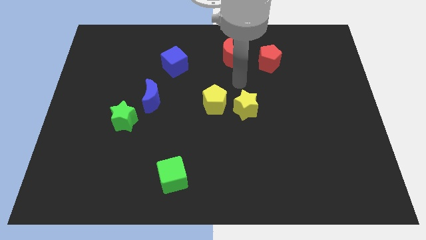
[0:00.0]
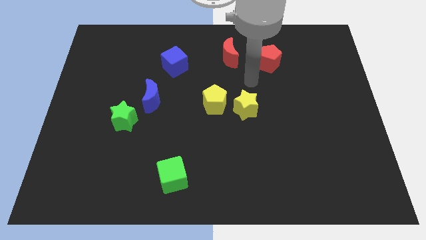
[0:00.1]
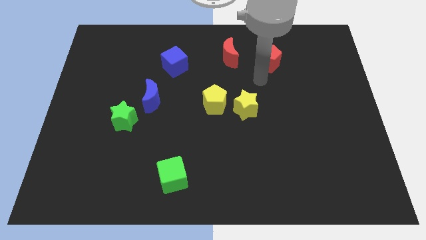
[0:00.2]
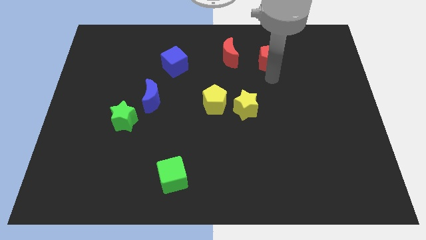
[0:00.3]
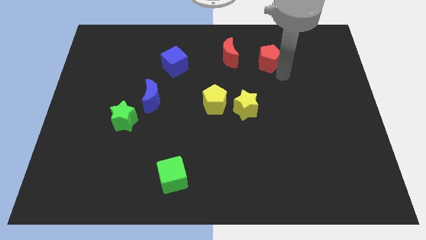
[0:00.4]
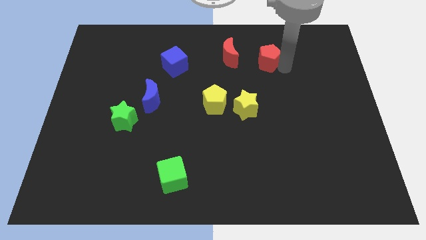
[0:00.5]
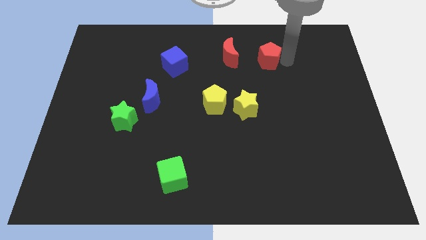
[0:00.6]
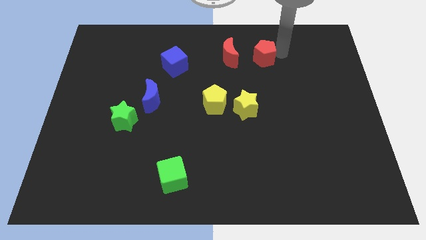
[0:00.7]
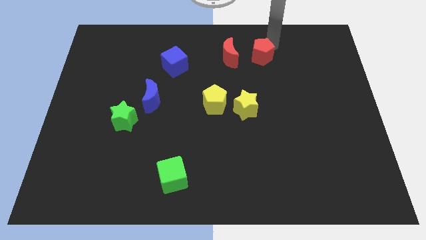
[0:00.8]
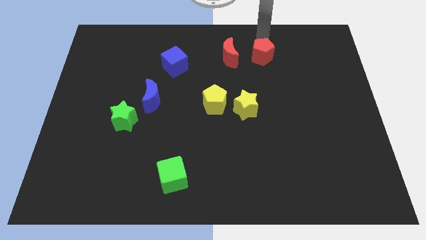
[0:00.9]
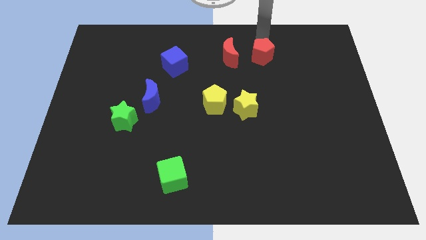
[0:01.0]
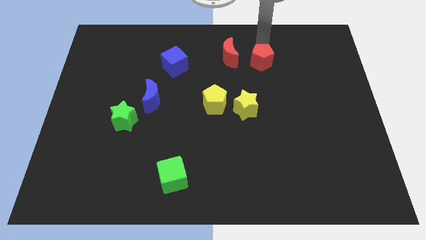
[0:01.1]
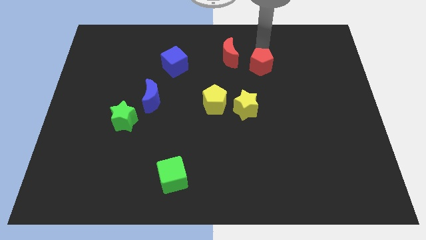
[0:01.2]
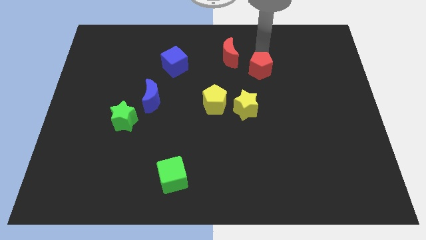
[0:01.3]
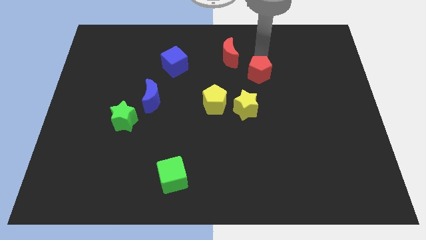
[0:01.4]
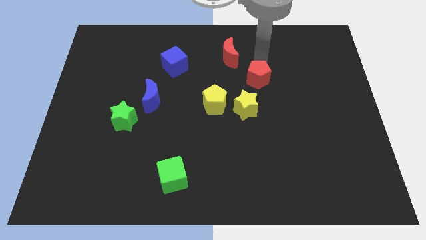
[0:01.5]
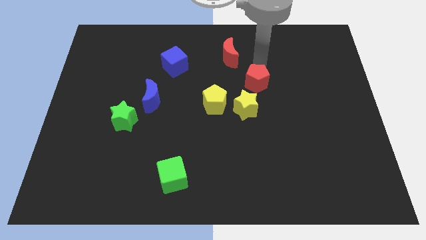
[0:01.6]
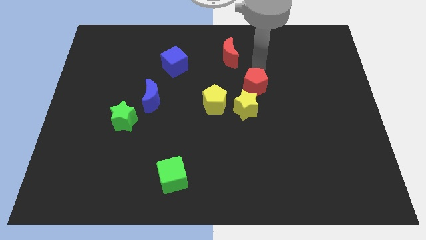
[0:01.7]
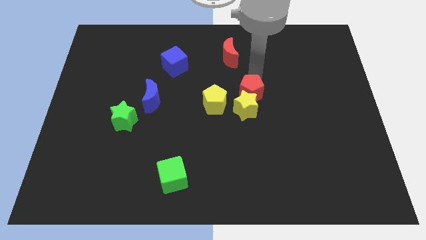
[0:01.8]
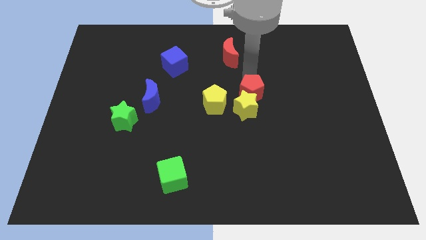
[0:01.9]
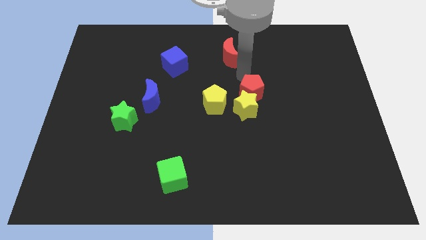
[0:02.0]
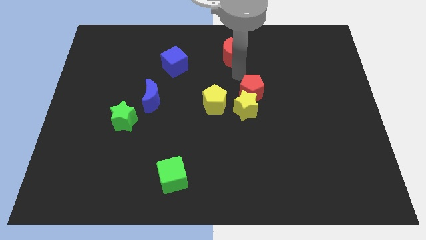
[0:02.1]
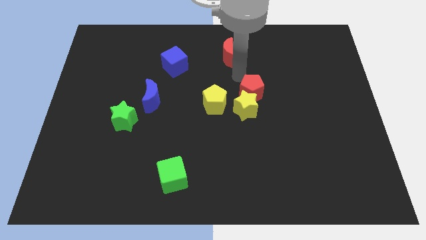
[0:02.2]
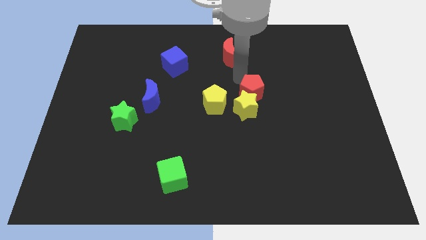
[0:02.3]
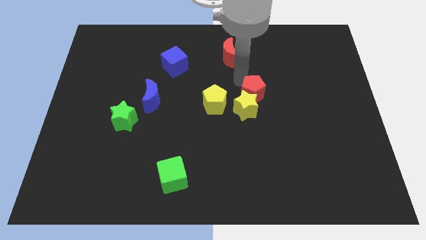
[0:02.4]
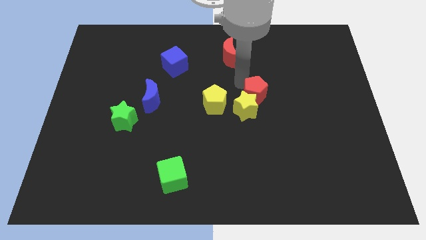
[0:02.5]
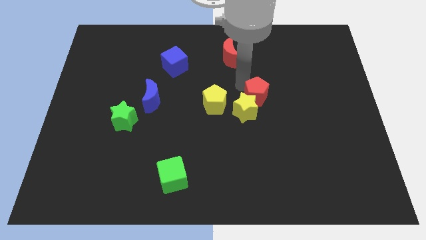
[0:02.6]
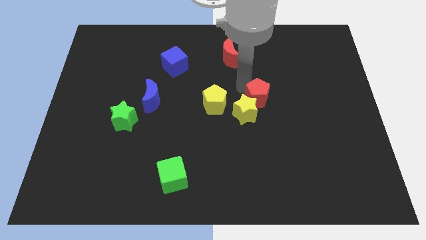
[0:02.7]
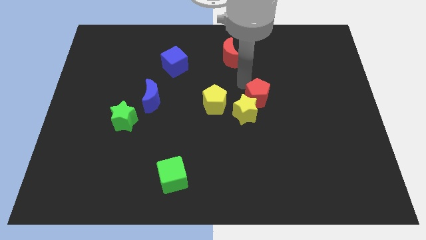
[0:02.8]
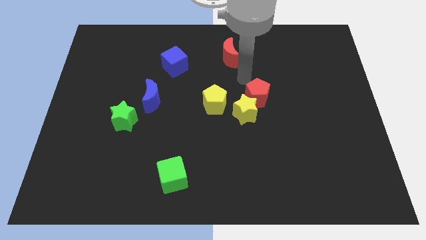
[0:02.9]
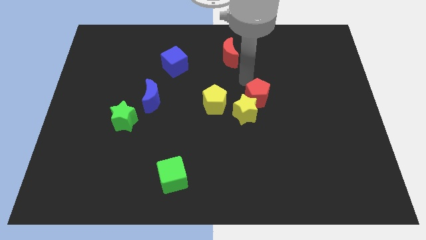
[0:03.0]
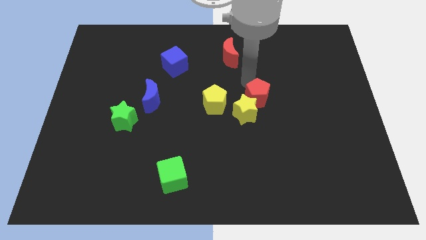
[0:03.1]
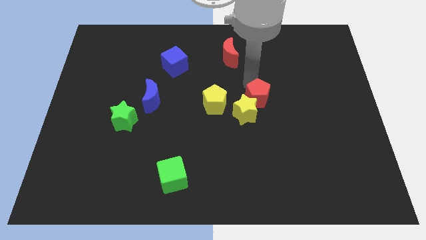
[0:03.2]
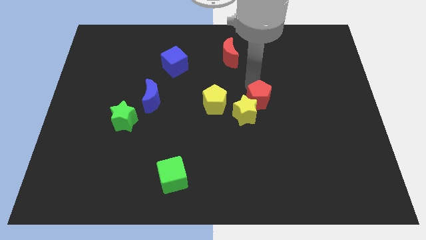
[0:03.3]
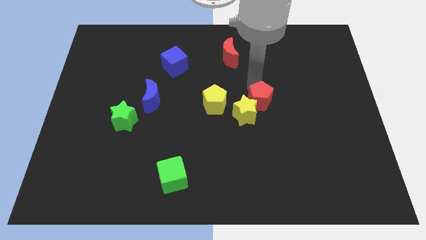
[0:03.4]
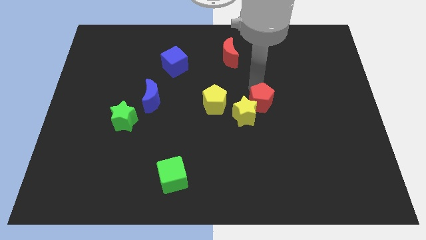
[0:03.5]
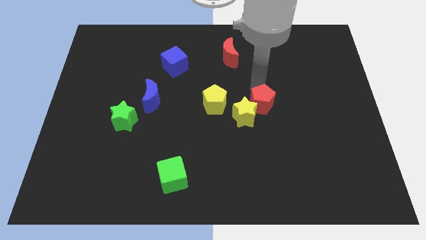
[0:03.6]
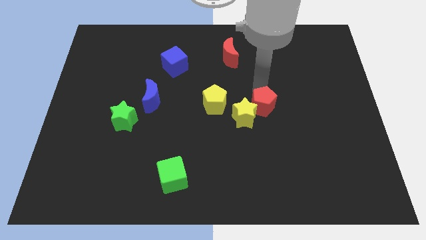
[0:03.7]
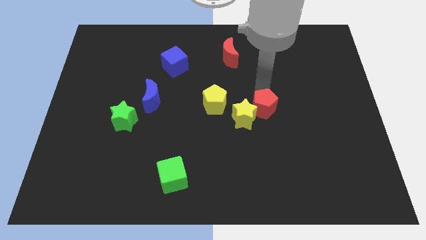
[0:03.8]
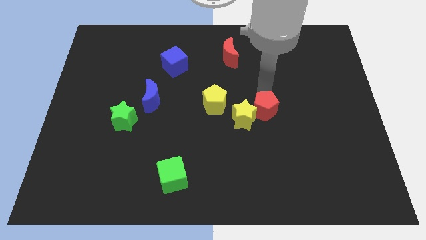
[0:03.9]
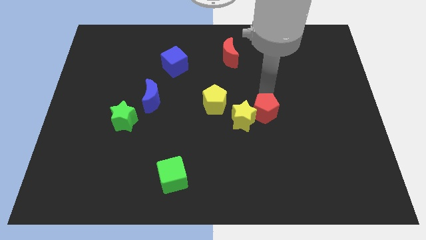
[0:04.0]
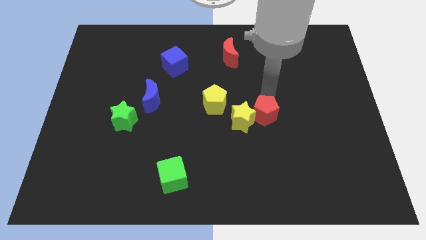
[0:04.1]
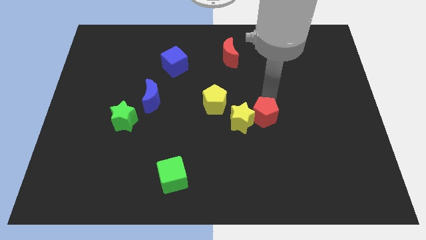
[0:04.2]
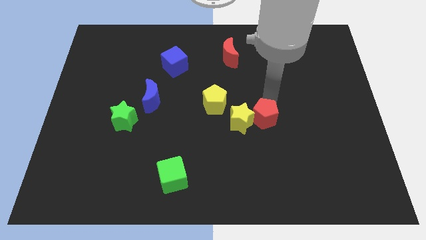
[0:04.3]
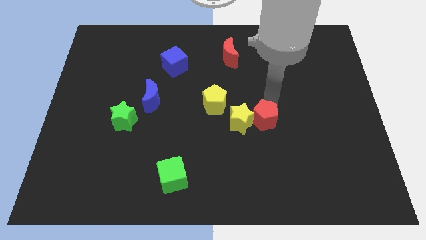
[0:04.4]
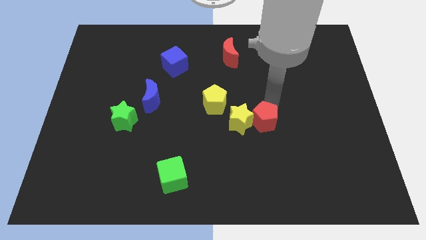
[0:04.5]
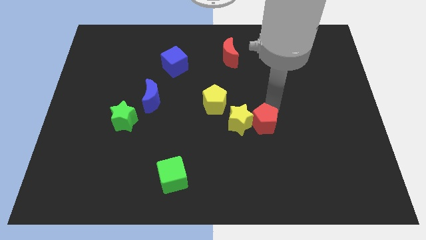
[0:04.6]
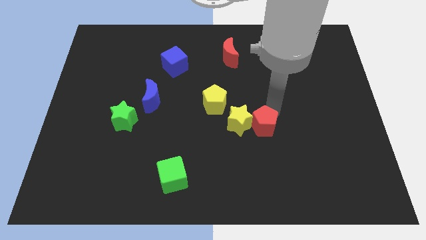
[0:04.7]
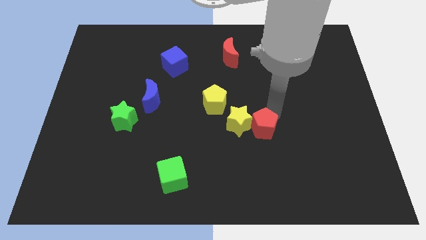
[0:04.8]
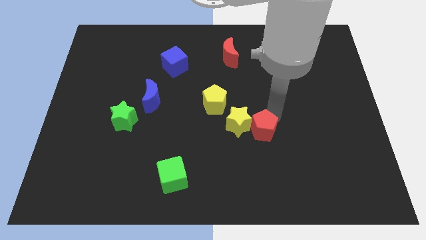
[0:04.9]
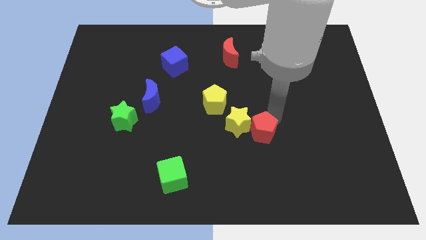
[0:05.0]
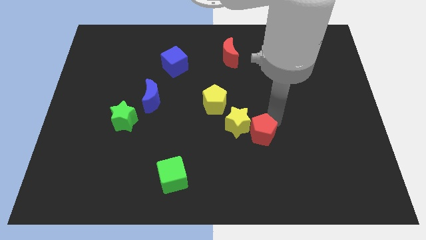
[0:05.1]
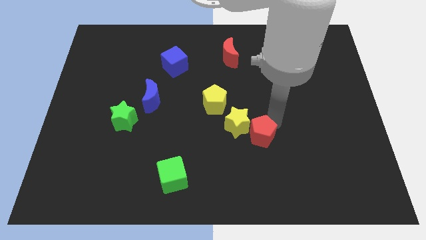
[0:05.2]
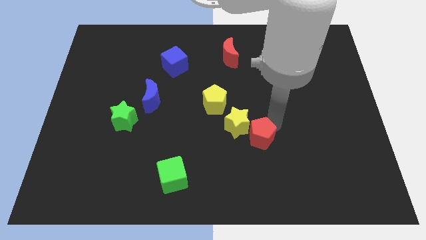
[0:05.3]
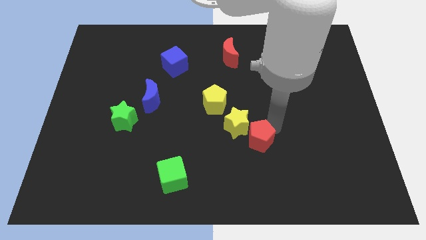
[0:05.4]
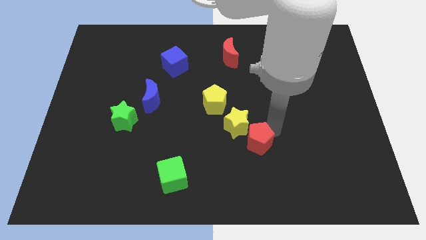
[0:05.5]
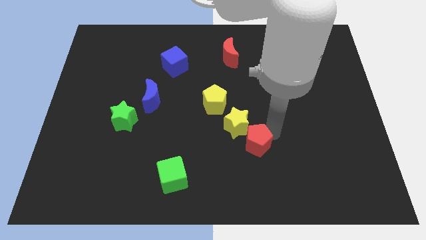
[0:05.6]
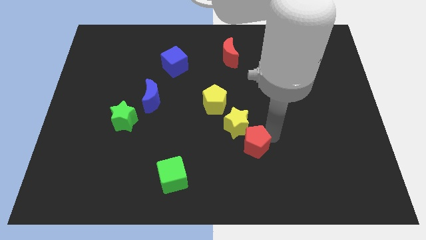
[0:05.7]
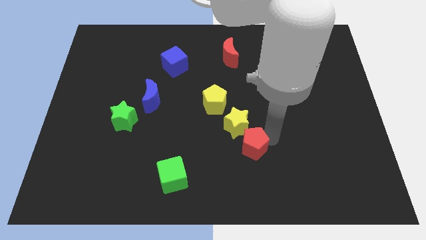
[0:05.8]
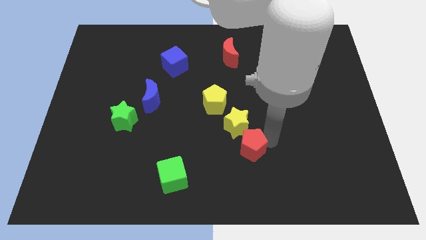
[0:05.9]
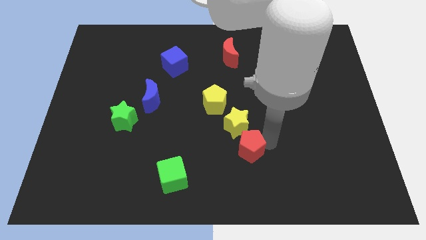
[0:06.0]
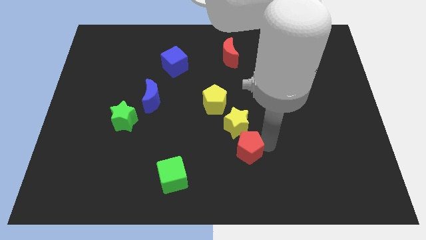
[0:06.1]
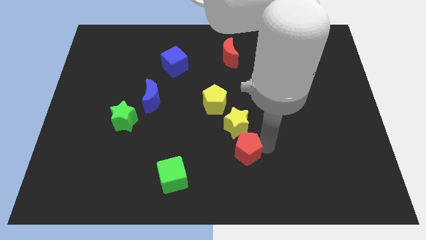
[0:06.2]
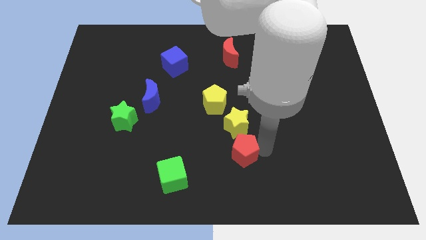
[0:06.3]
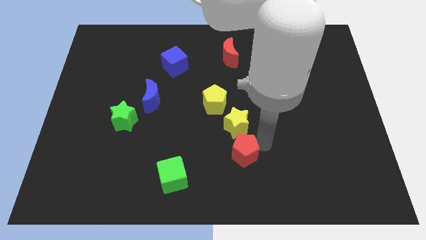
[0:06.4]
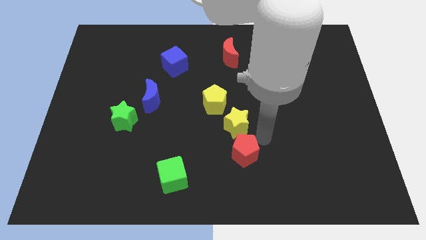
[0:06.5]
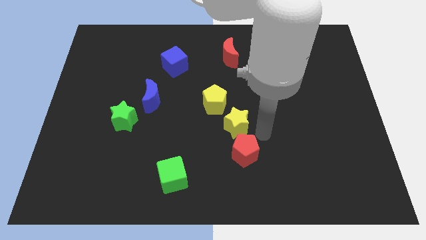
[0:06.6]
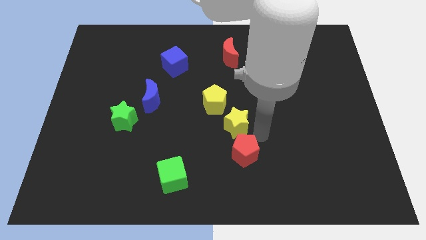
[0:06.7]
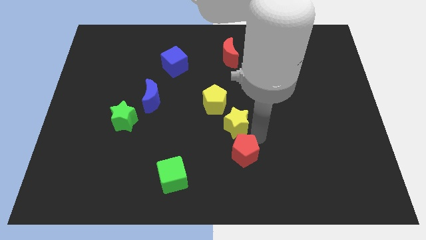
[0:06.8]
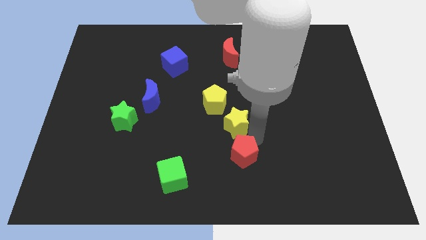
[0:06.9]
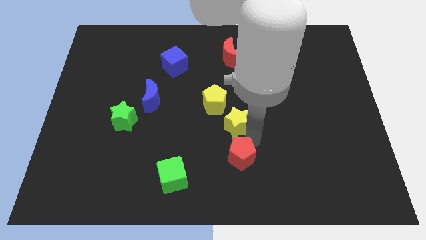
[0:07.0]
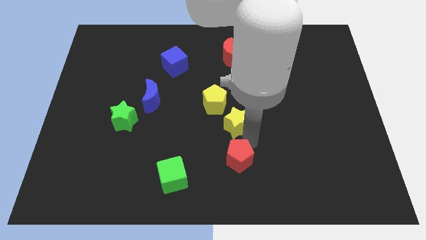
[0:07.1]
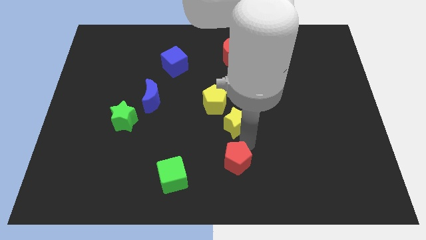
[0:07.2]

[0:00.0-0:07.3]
push the red pentagon right of the green cube

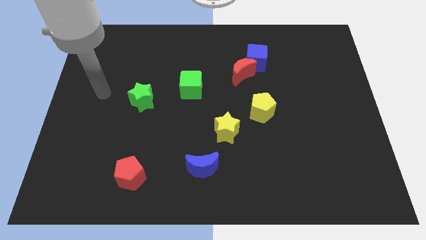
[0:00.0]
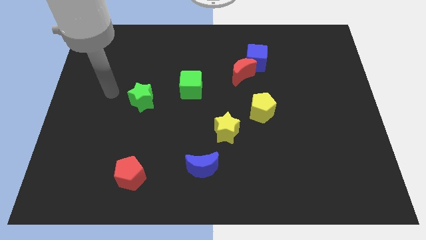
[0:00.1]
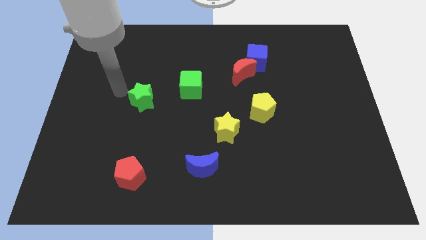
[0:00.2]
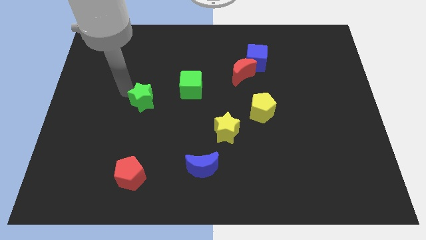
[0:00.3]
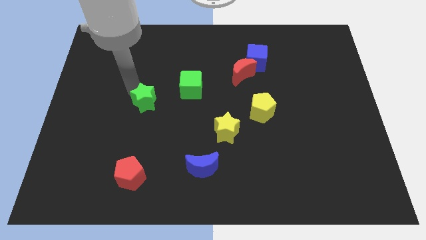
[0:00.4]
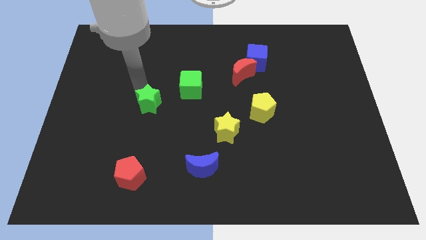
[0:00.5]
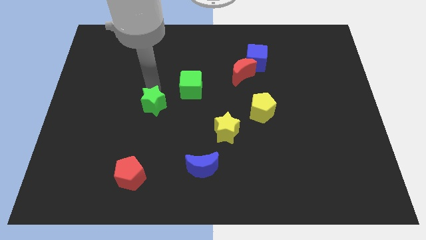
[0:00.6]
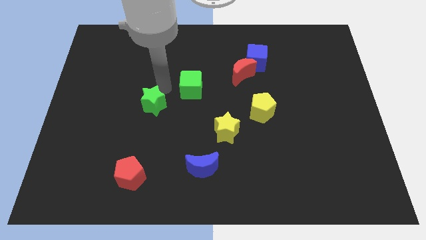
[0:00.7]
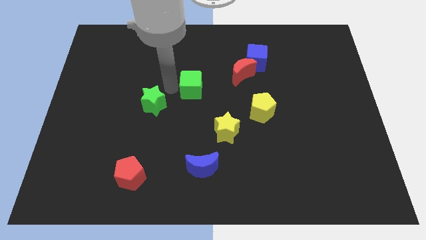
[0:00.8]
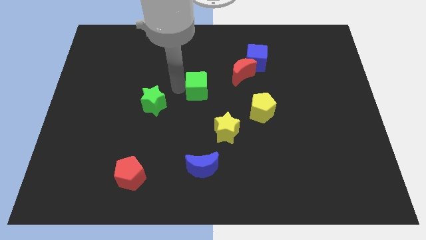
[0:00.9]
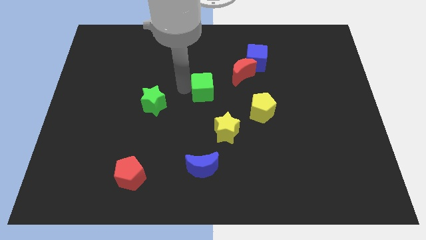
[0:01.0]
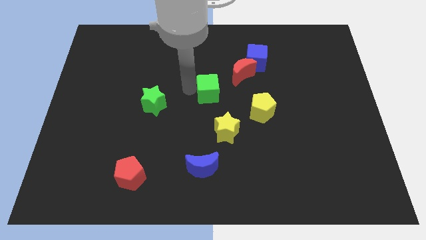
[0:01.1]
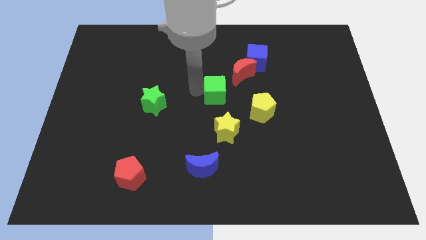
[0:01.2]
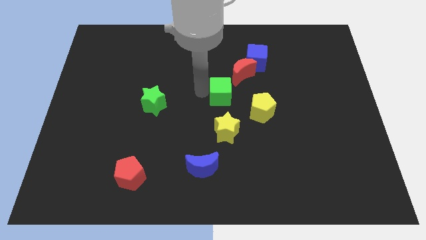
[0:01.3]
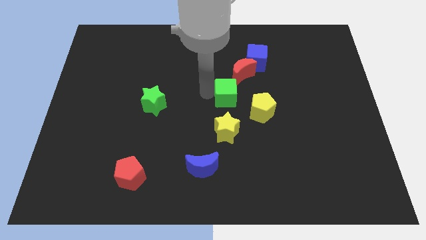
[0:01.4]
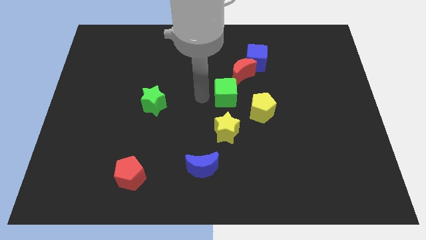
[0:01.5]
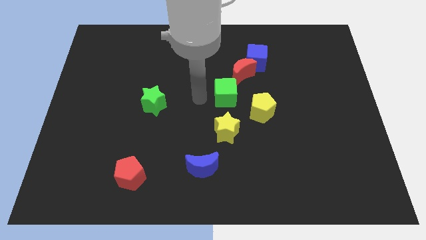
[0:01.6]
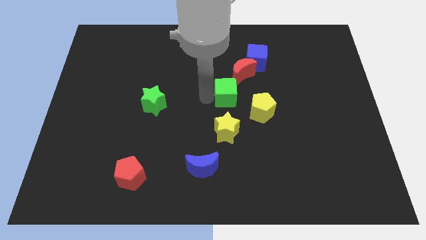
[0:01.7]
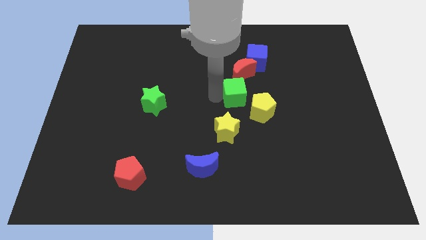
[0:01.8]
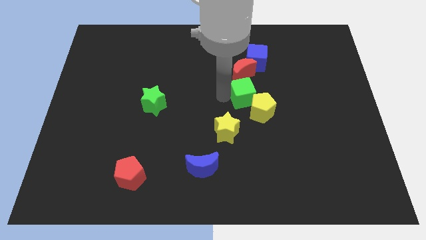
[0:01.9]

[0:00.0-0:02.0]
put the green cube below the blue cube
